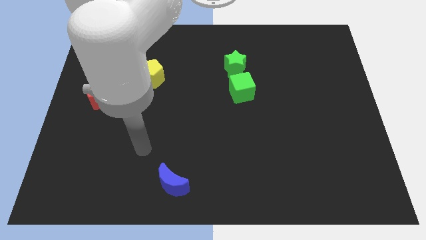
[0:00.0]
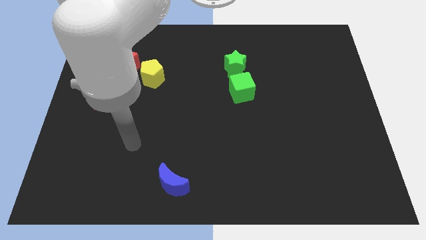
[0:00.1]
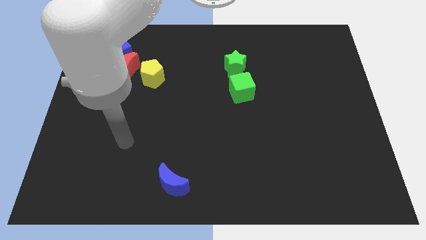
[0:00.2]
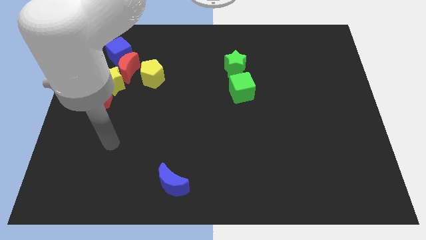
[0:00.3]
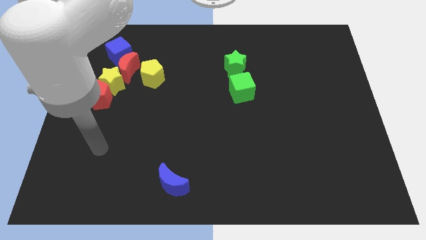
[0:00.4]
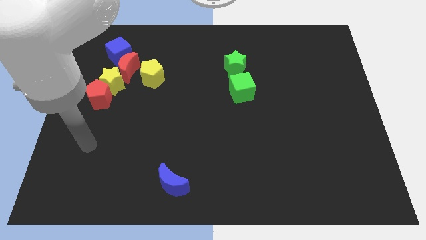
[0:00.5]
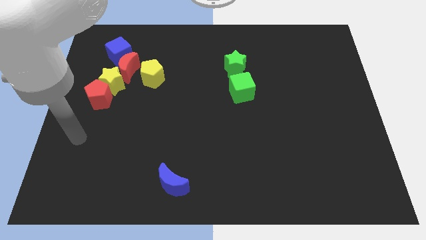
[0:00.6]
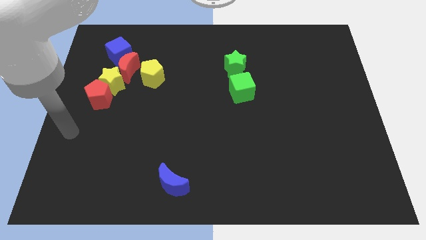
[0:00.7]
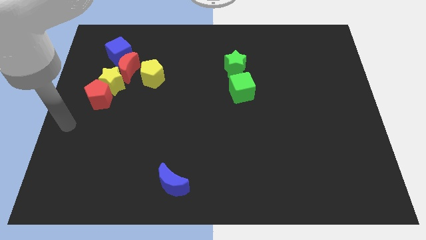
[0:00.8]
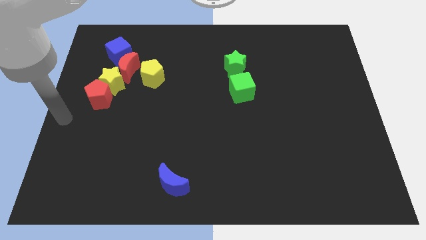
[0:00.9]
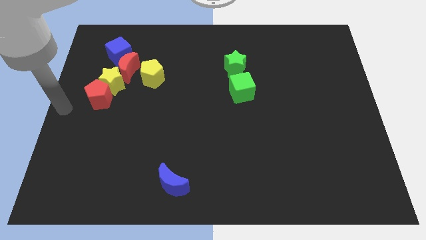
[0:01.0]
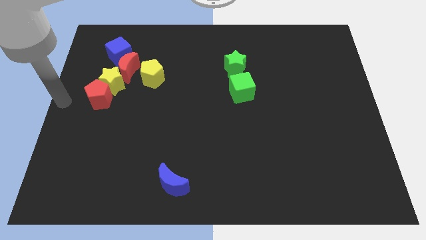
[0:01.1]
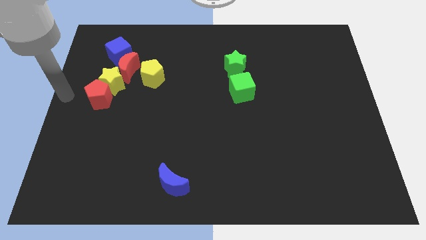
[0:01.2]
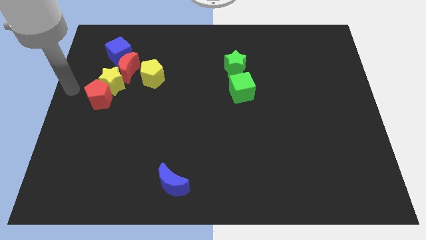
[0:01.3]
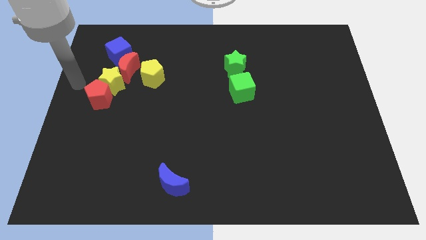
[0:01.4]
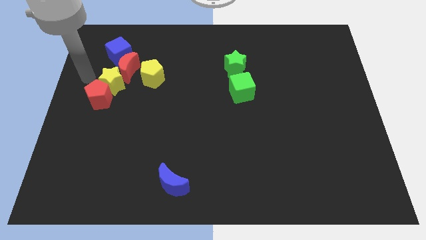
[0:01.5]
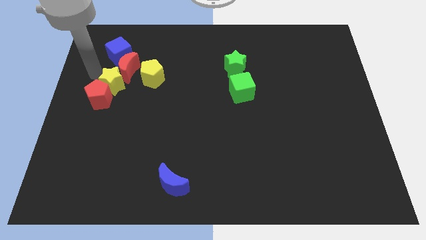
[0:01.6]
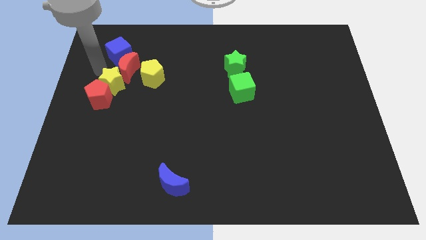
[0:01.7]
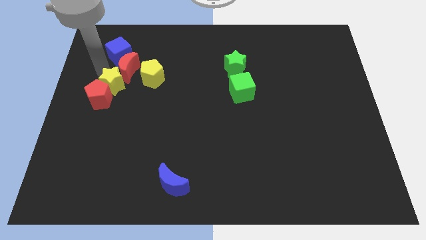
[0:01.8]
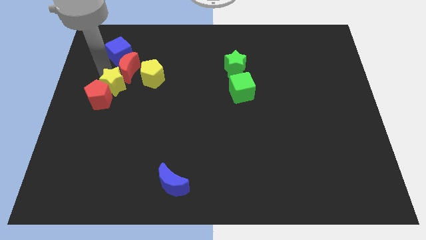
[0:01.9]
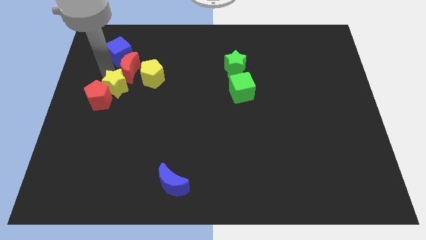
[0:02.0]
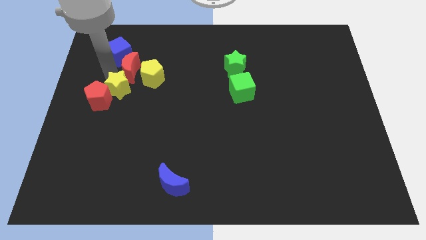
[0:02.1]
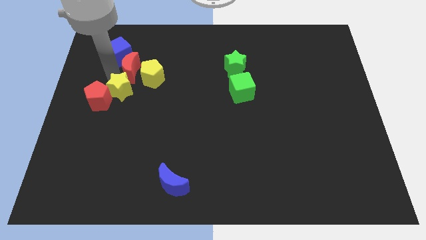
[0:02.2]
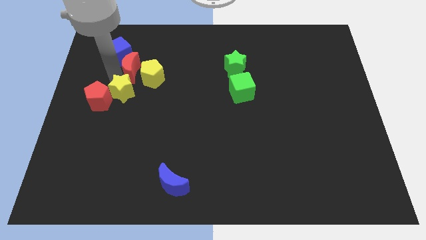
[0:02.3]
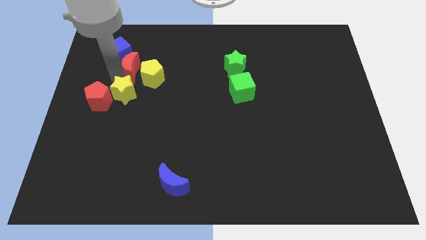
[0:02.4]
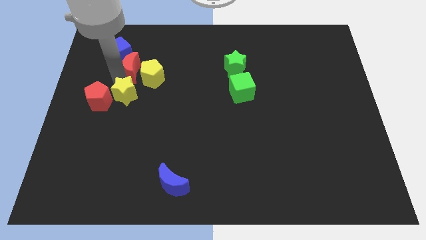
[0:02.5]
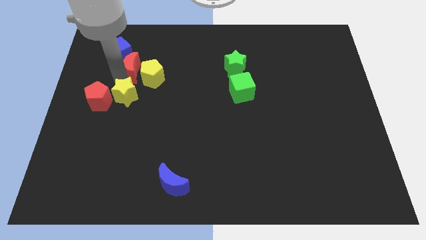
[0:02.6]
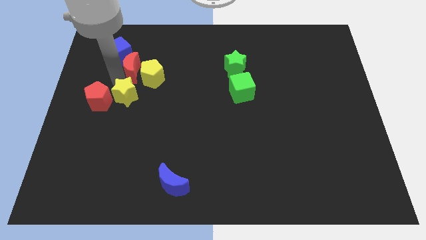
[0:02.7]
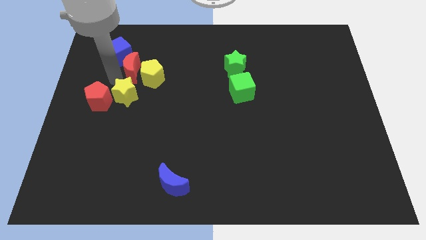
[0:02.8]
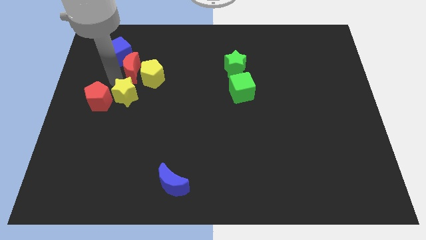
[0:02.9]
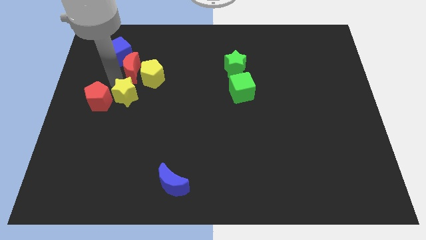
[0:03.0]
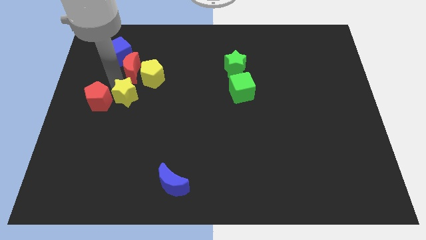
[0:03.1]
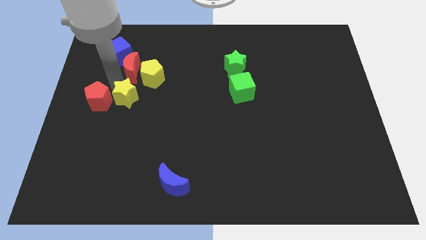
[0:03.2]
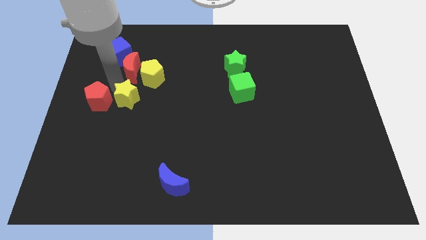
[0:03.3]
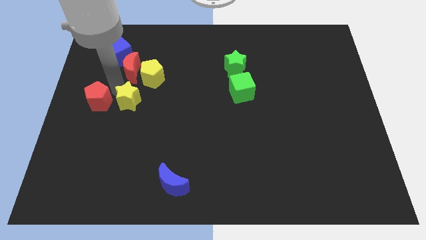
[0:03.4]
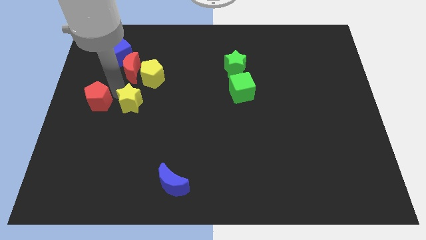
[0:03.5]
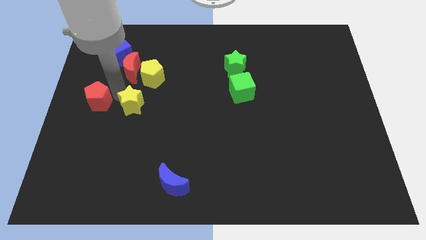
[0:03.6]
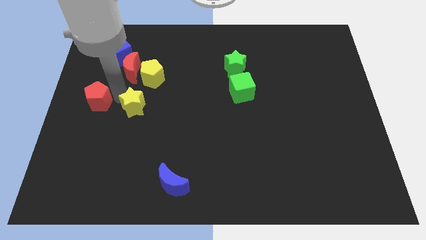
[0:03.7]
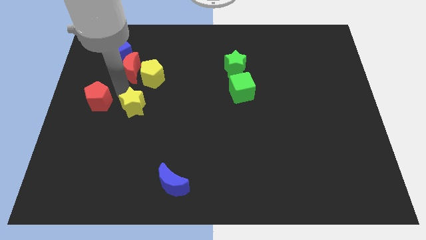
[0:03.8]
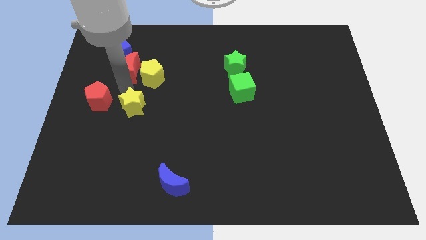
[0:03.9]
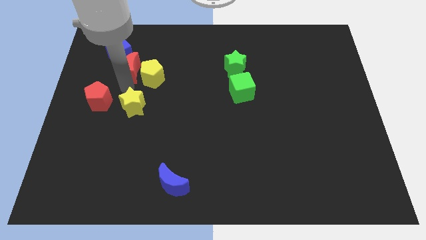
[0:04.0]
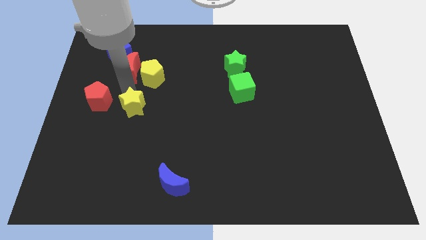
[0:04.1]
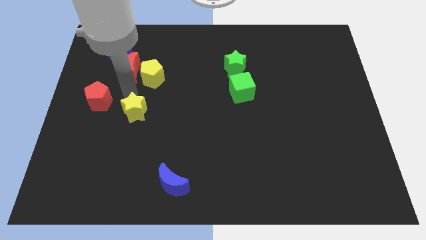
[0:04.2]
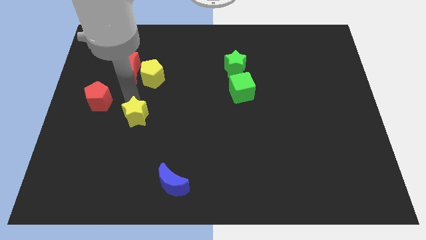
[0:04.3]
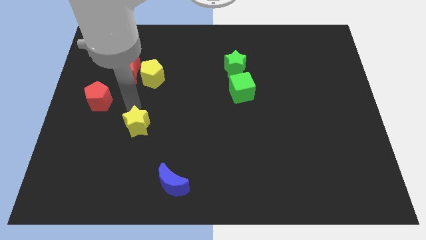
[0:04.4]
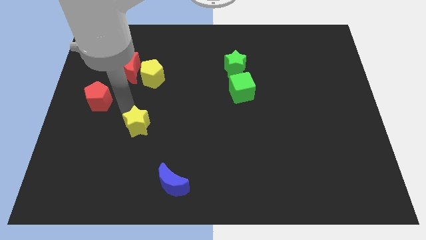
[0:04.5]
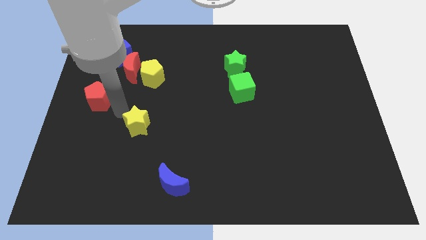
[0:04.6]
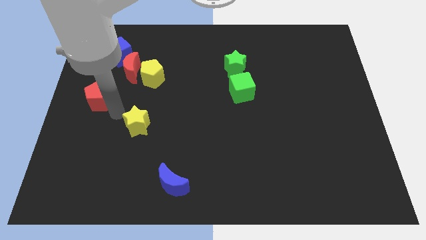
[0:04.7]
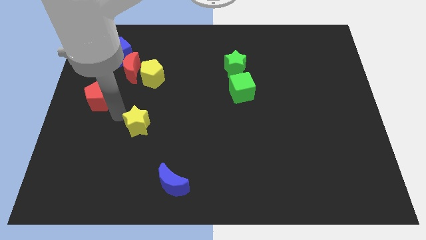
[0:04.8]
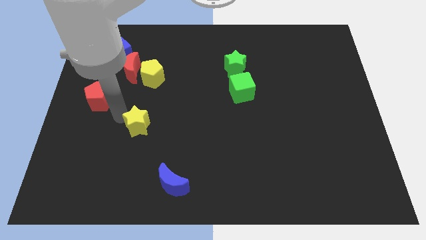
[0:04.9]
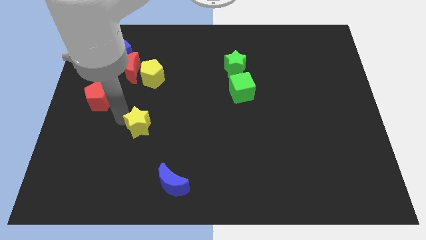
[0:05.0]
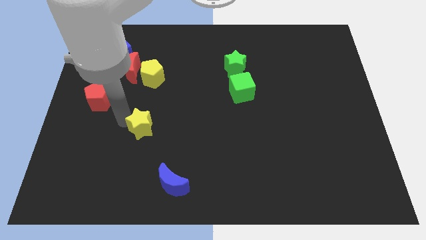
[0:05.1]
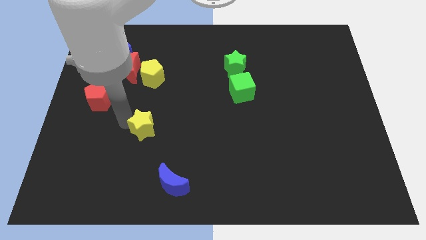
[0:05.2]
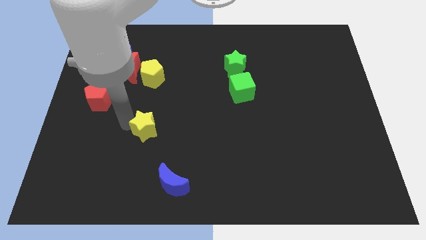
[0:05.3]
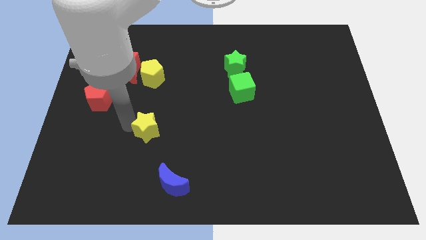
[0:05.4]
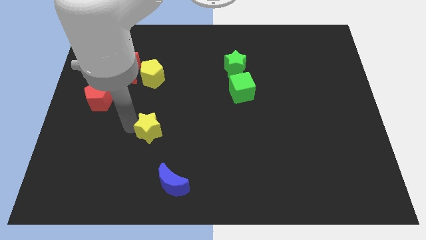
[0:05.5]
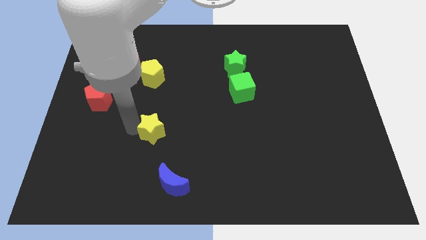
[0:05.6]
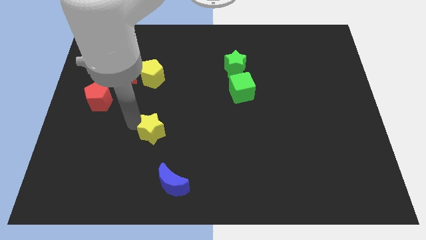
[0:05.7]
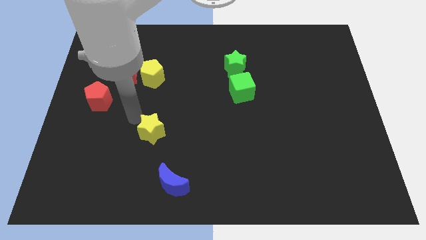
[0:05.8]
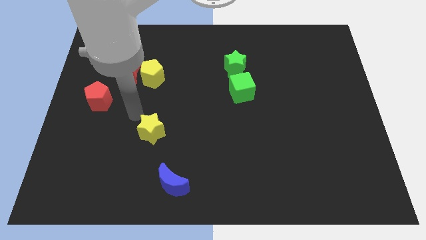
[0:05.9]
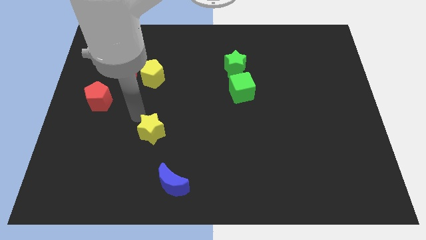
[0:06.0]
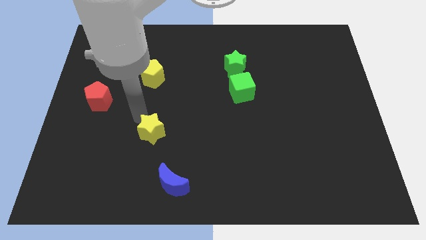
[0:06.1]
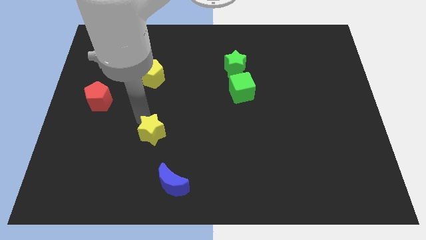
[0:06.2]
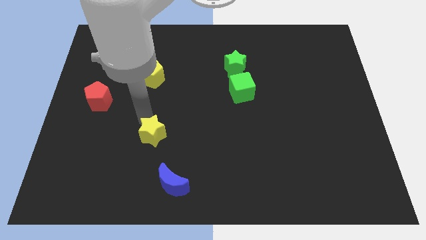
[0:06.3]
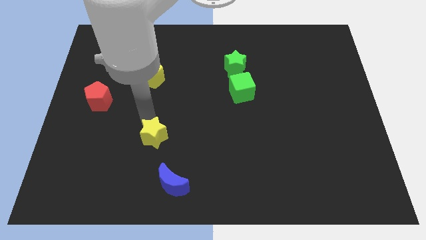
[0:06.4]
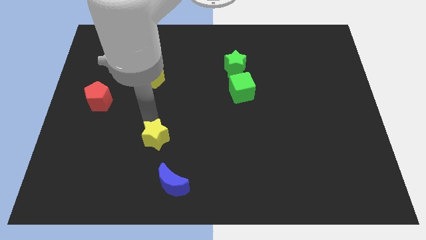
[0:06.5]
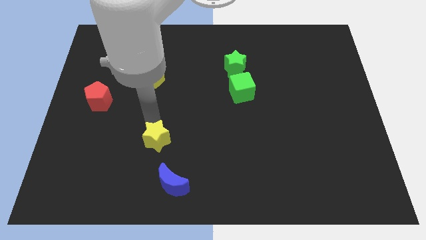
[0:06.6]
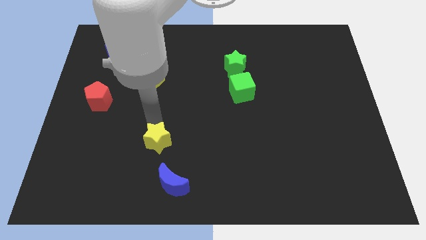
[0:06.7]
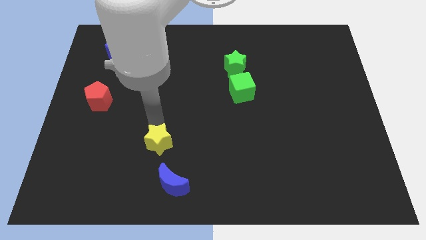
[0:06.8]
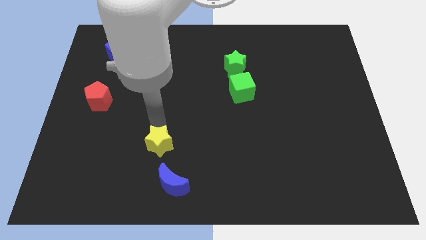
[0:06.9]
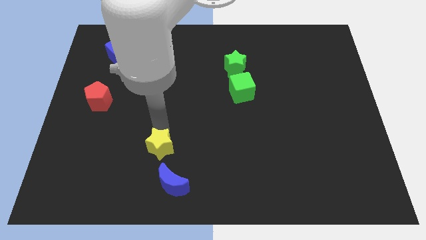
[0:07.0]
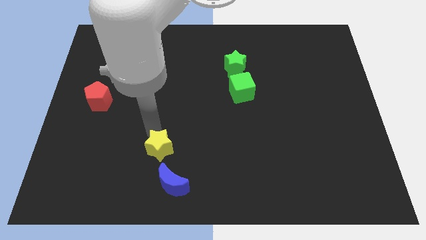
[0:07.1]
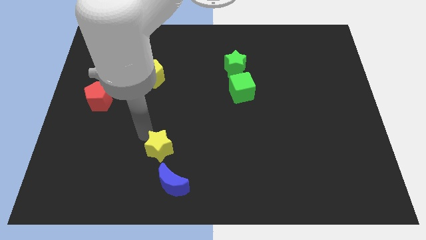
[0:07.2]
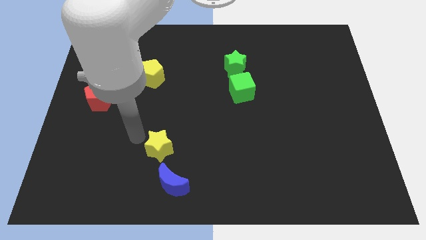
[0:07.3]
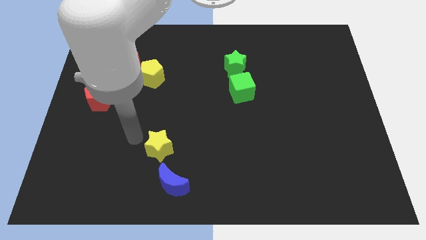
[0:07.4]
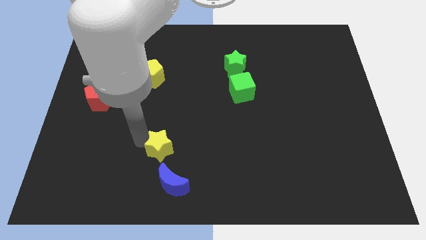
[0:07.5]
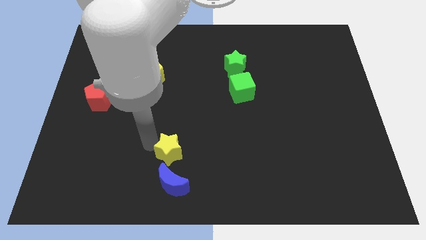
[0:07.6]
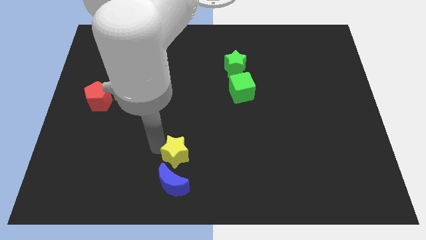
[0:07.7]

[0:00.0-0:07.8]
put the yellow star diagonally up and to the right of the blue moon
